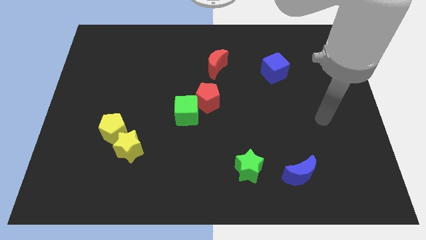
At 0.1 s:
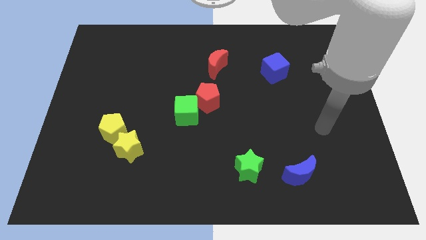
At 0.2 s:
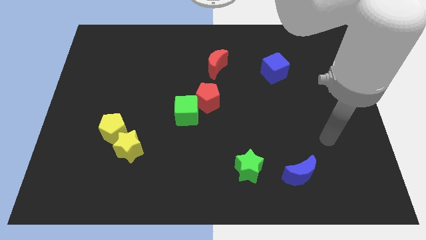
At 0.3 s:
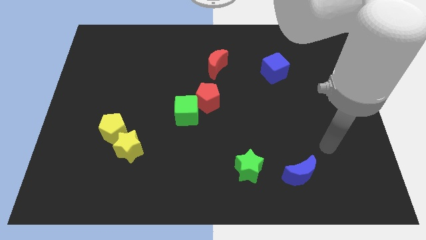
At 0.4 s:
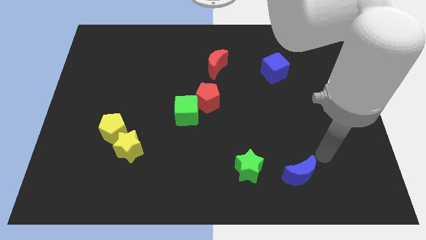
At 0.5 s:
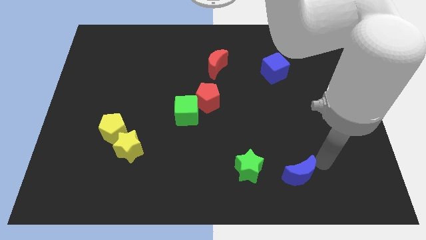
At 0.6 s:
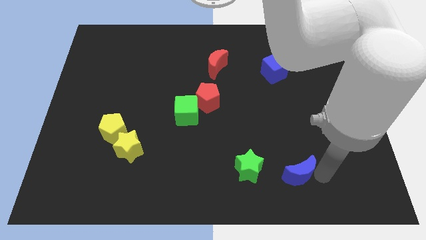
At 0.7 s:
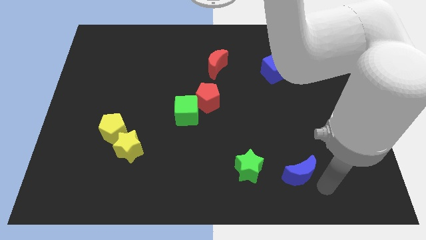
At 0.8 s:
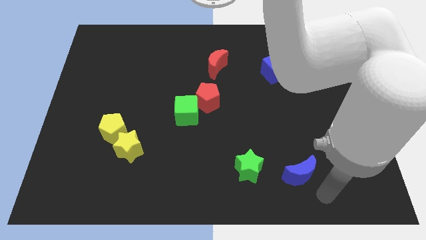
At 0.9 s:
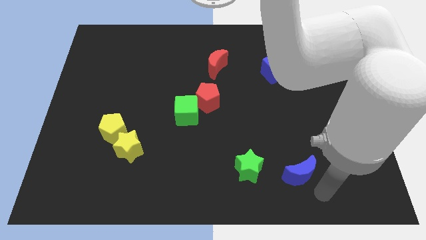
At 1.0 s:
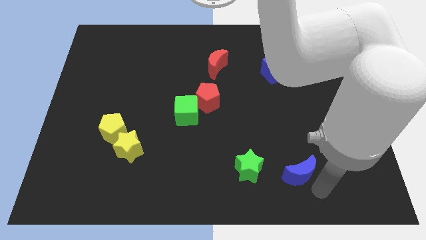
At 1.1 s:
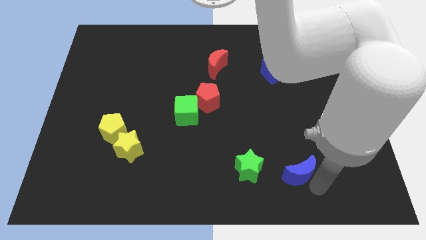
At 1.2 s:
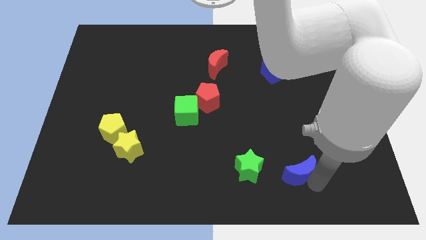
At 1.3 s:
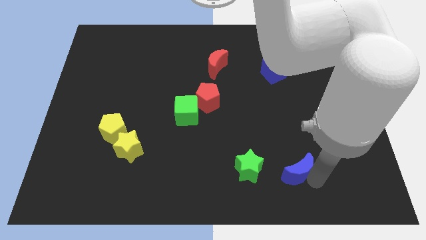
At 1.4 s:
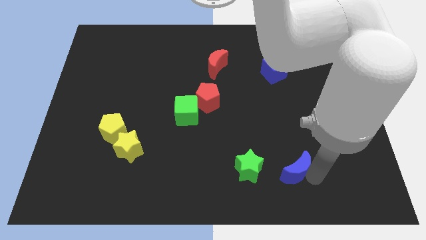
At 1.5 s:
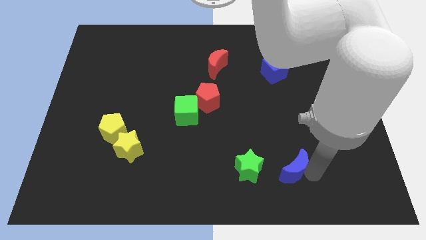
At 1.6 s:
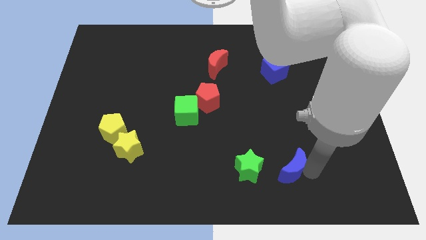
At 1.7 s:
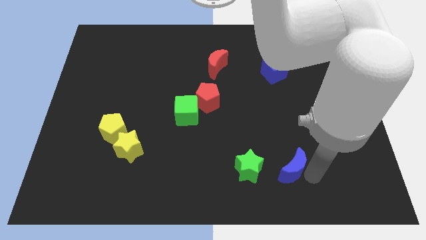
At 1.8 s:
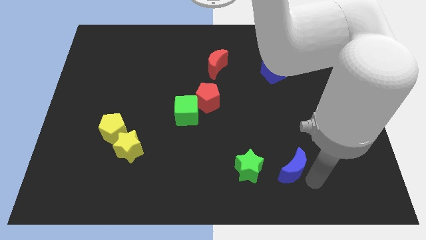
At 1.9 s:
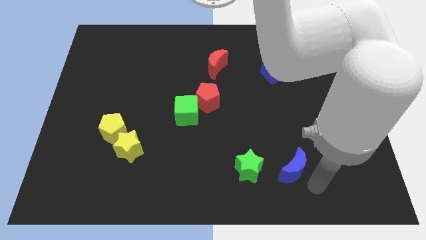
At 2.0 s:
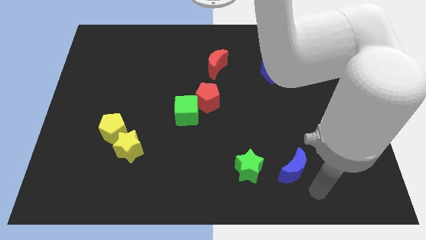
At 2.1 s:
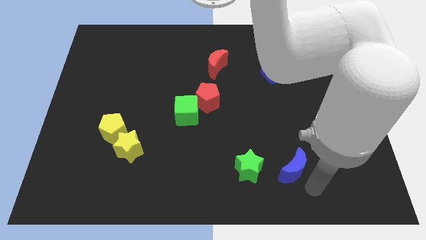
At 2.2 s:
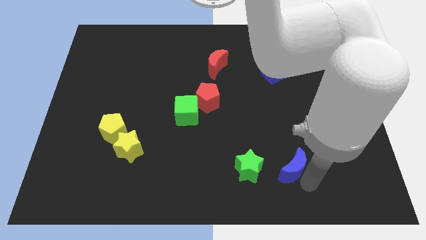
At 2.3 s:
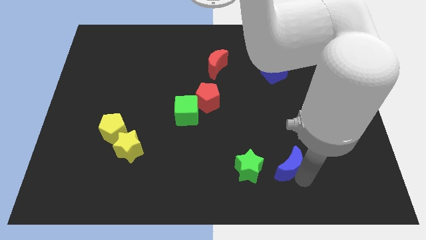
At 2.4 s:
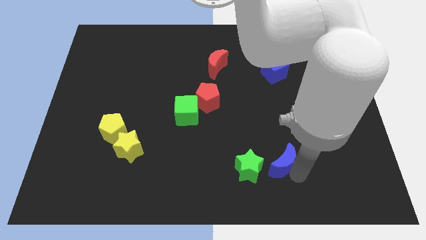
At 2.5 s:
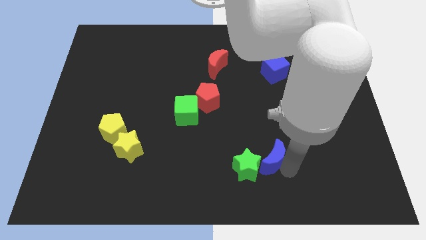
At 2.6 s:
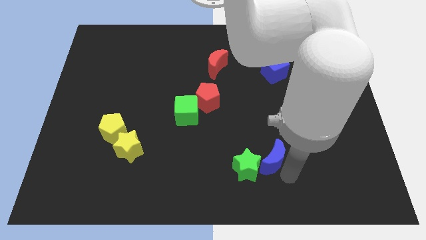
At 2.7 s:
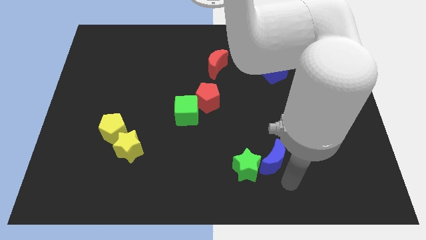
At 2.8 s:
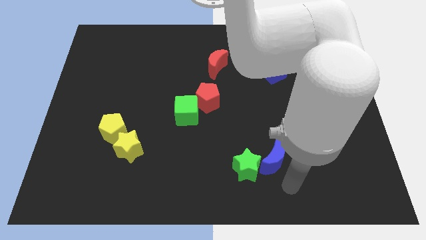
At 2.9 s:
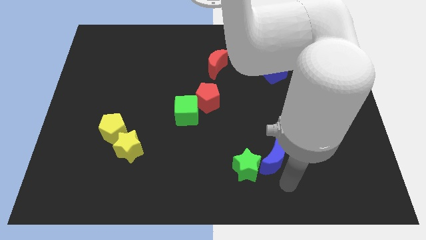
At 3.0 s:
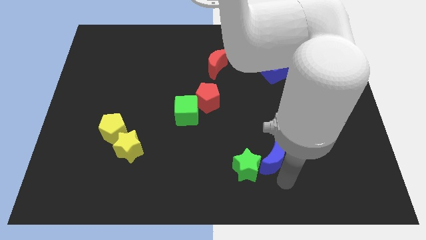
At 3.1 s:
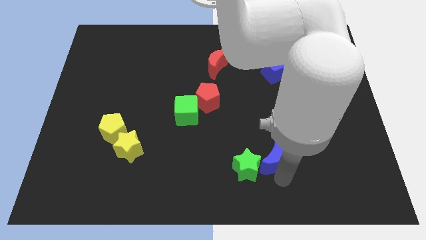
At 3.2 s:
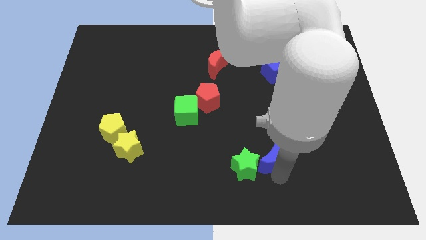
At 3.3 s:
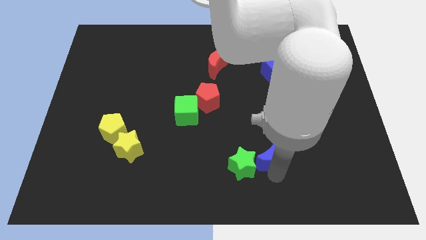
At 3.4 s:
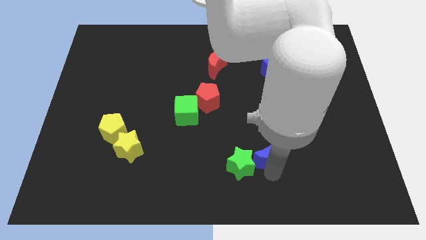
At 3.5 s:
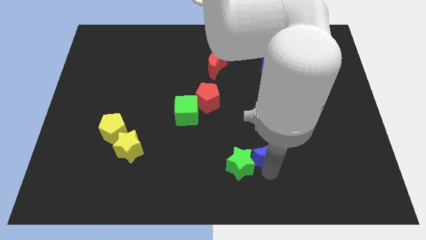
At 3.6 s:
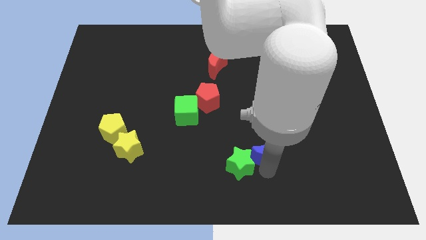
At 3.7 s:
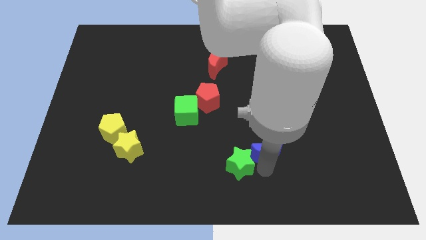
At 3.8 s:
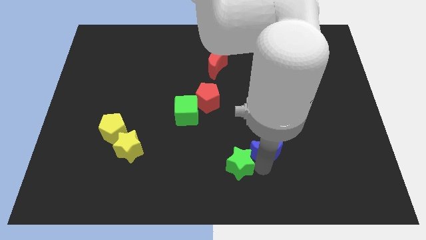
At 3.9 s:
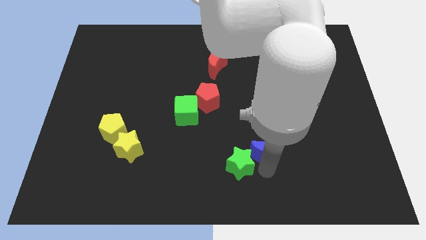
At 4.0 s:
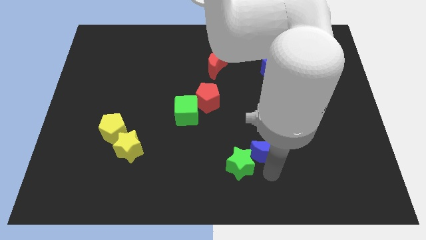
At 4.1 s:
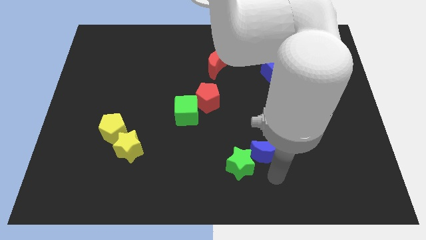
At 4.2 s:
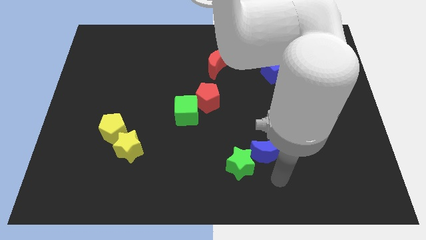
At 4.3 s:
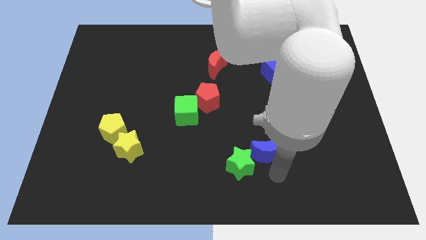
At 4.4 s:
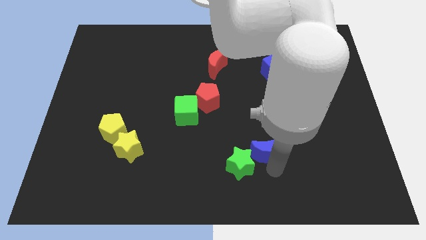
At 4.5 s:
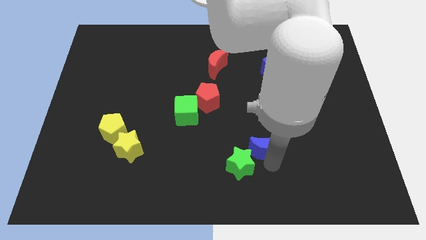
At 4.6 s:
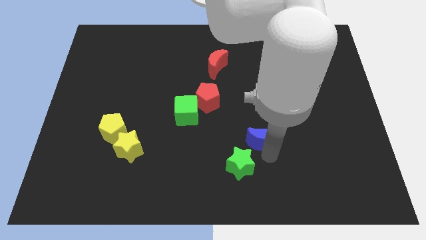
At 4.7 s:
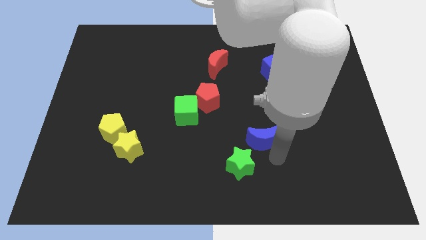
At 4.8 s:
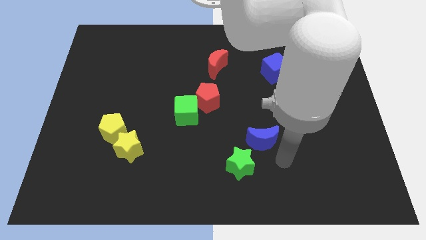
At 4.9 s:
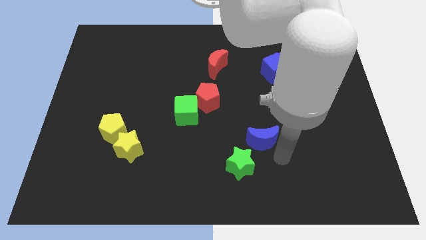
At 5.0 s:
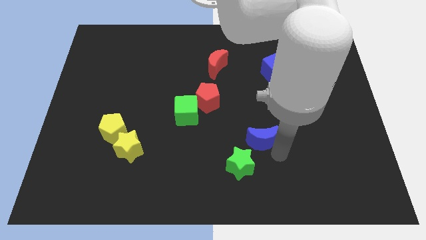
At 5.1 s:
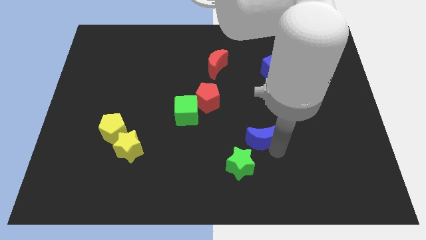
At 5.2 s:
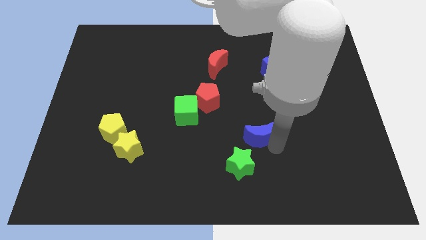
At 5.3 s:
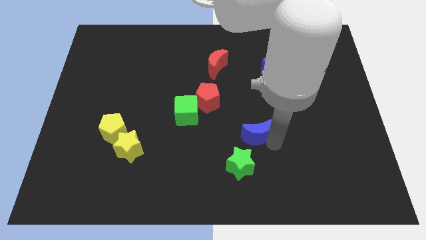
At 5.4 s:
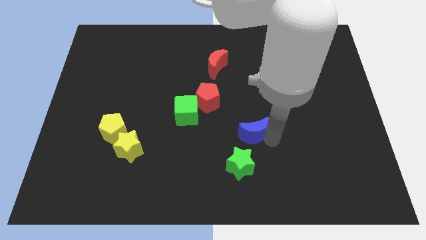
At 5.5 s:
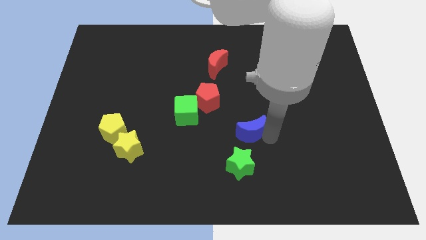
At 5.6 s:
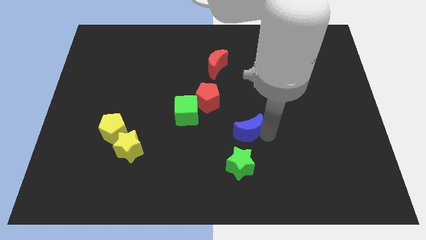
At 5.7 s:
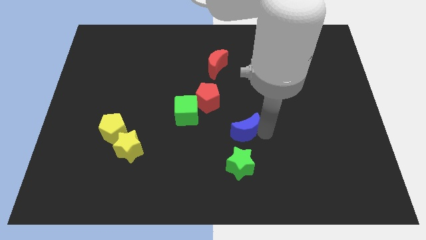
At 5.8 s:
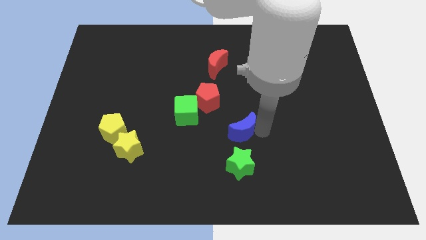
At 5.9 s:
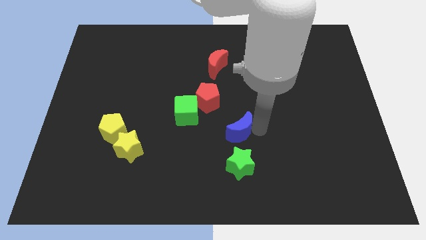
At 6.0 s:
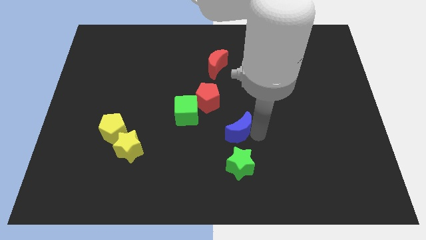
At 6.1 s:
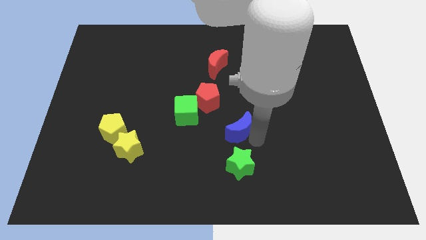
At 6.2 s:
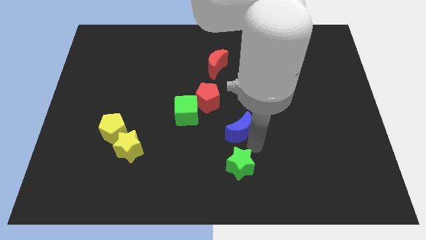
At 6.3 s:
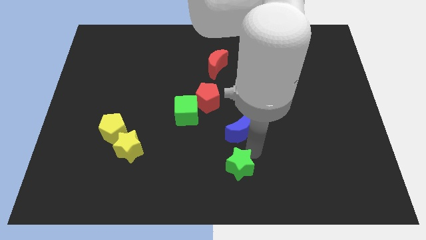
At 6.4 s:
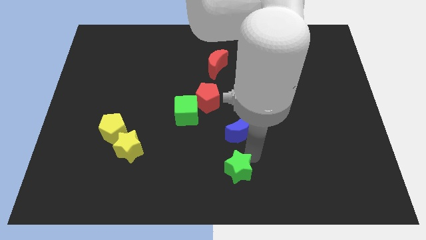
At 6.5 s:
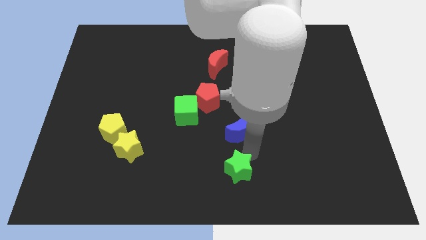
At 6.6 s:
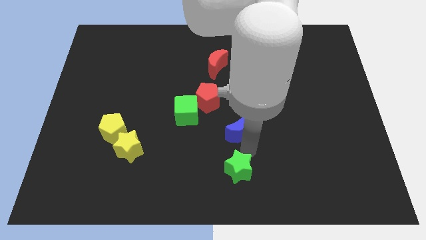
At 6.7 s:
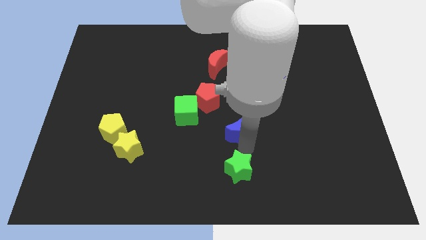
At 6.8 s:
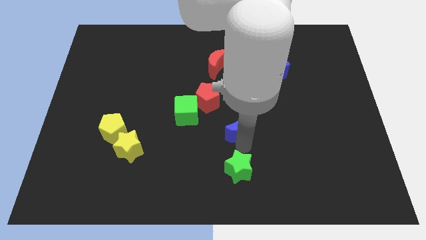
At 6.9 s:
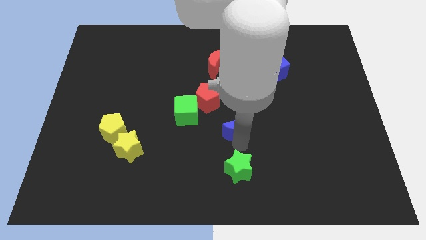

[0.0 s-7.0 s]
put the blue moon just right of the green cube
